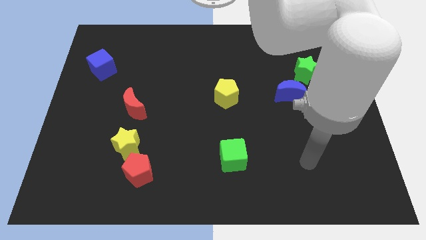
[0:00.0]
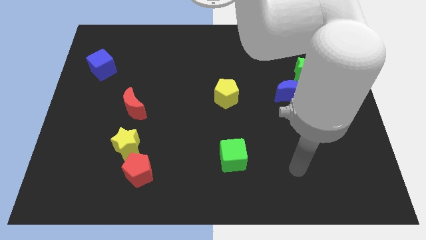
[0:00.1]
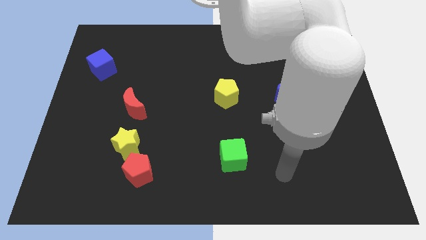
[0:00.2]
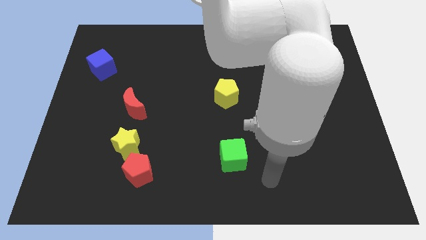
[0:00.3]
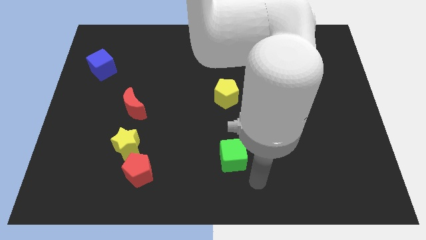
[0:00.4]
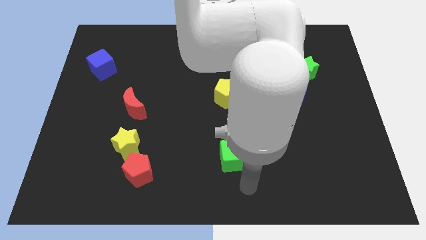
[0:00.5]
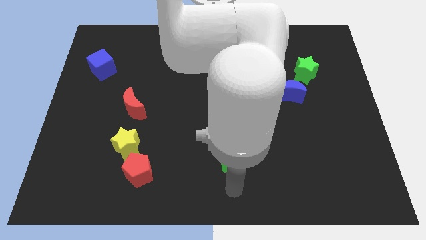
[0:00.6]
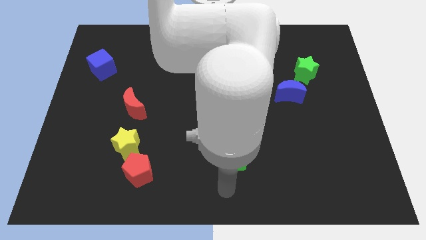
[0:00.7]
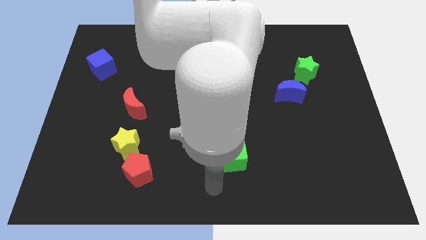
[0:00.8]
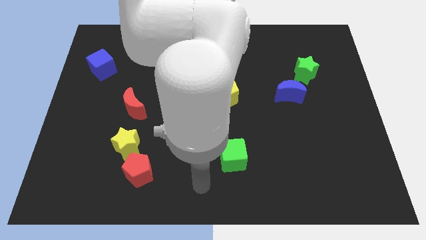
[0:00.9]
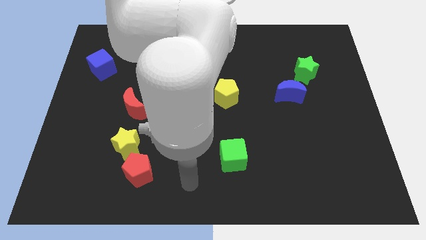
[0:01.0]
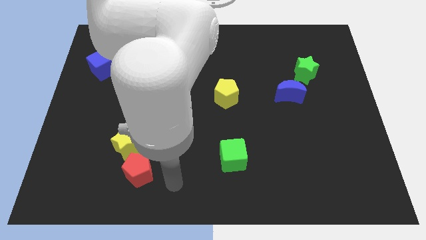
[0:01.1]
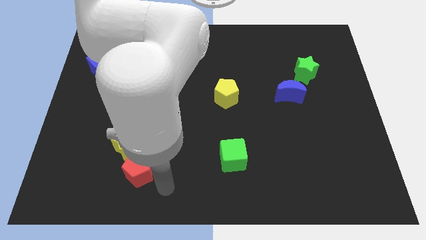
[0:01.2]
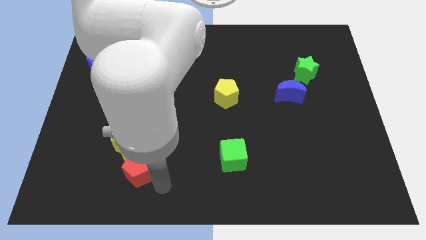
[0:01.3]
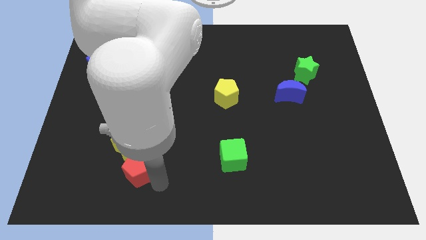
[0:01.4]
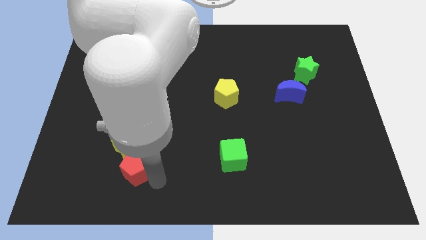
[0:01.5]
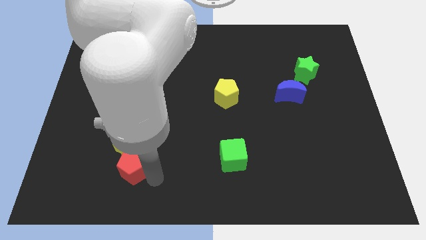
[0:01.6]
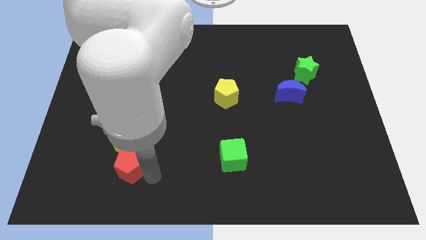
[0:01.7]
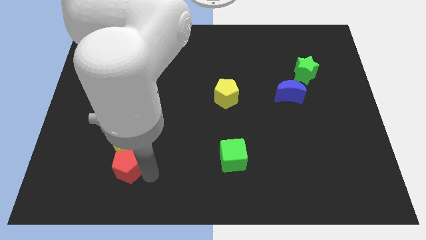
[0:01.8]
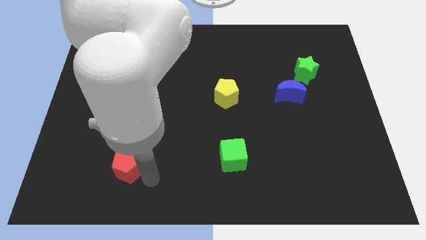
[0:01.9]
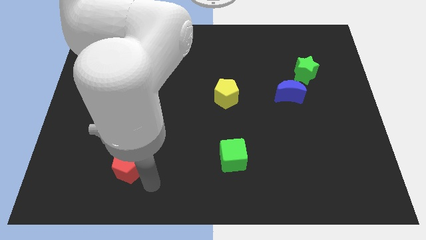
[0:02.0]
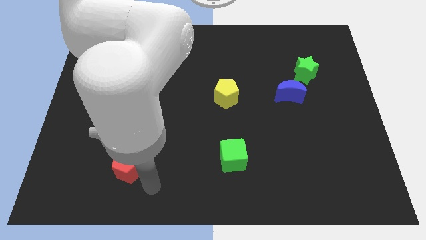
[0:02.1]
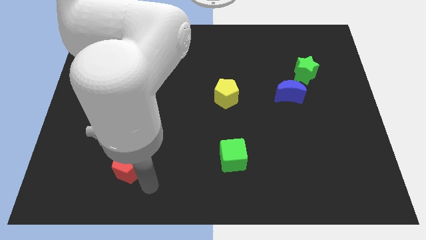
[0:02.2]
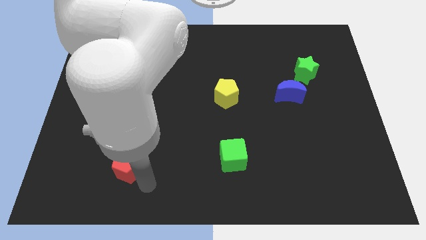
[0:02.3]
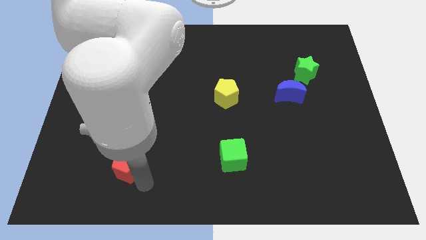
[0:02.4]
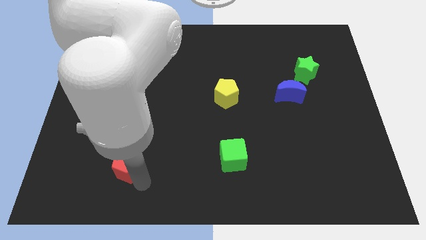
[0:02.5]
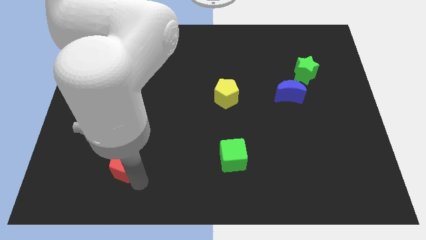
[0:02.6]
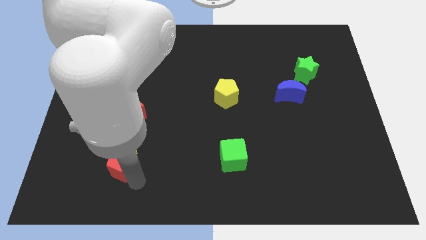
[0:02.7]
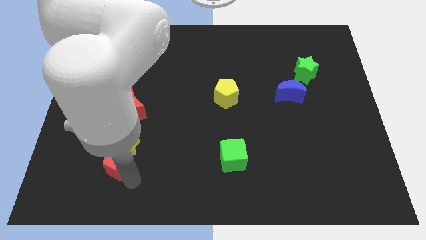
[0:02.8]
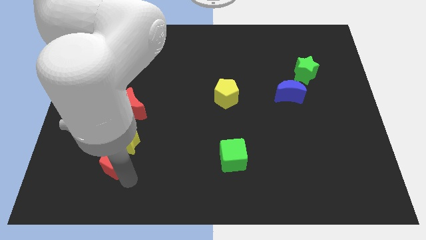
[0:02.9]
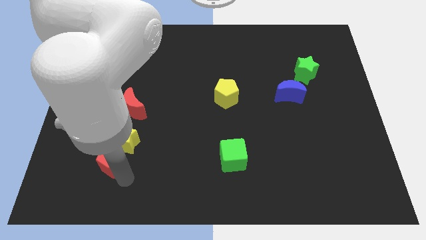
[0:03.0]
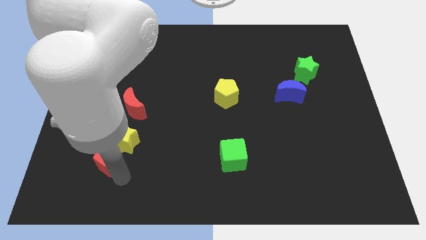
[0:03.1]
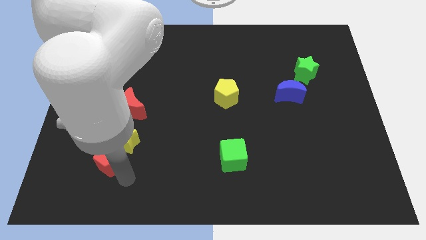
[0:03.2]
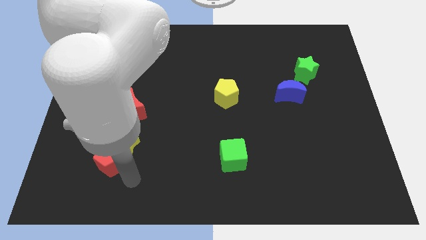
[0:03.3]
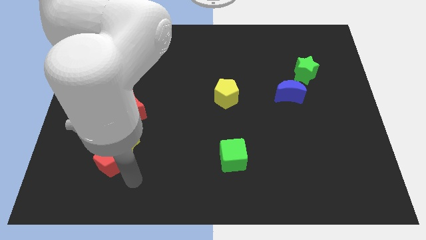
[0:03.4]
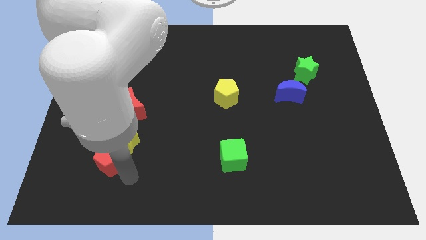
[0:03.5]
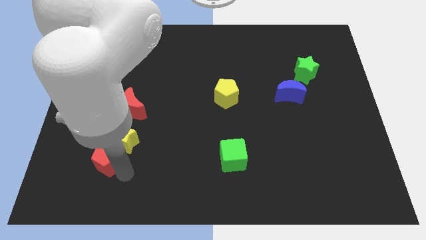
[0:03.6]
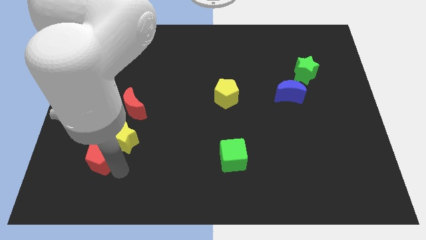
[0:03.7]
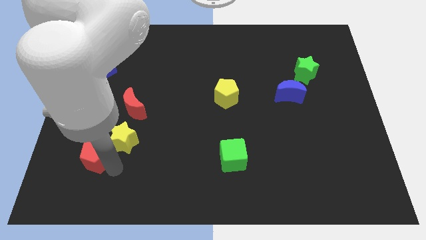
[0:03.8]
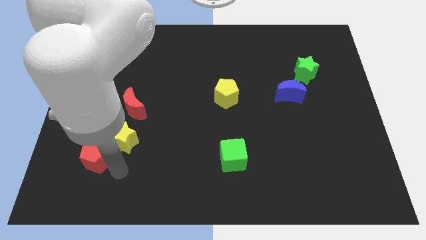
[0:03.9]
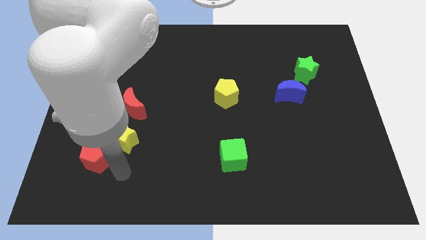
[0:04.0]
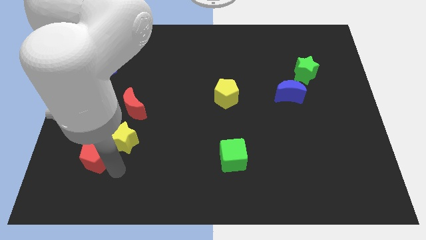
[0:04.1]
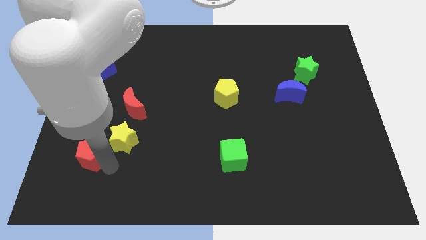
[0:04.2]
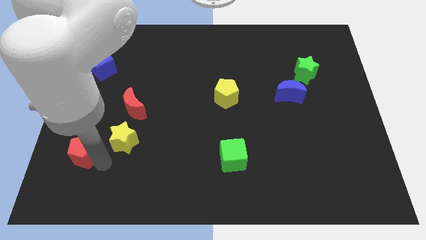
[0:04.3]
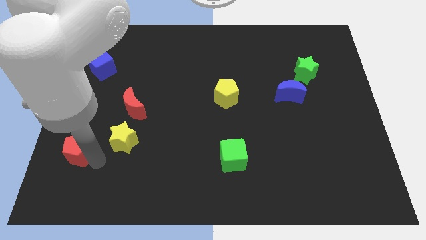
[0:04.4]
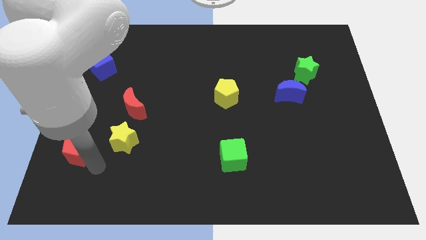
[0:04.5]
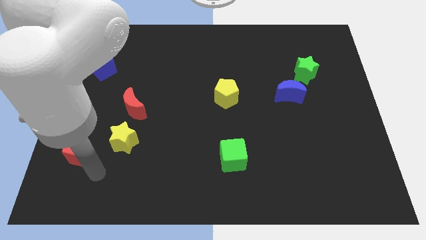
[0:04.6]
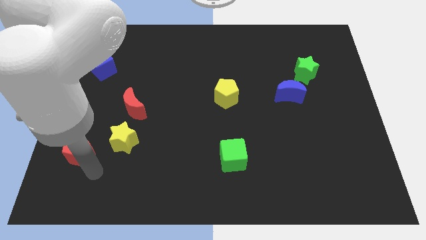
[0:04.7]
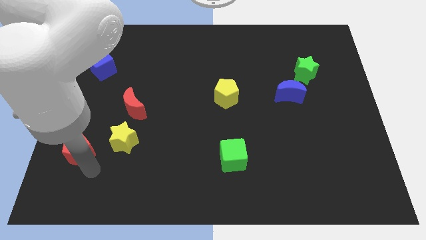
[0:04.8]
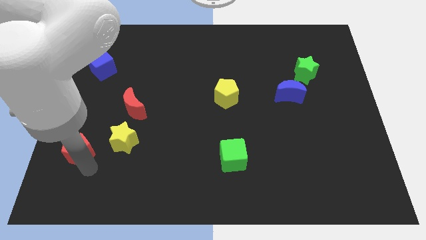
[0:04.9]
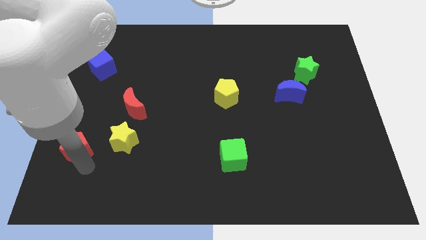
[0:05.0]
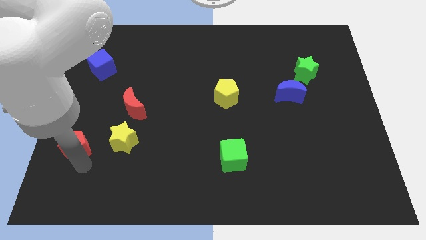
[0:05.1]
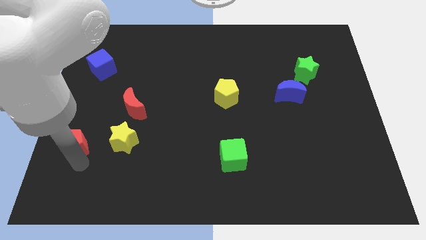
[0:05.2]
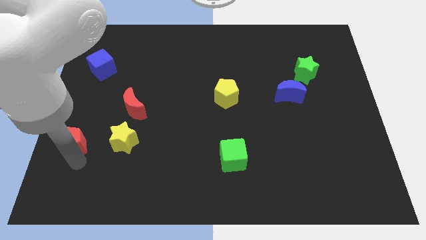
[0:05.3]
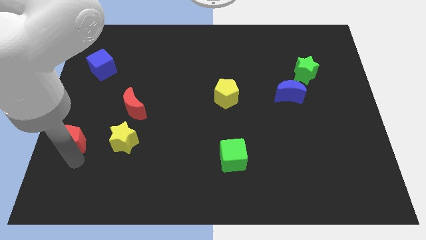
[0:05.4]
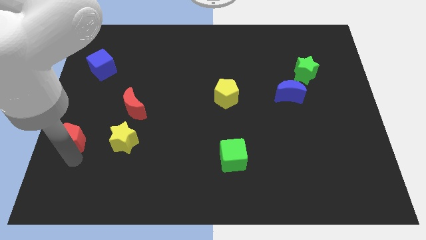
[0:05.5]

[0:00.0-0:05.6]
move the red pentagon to the left side of the board
